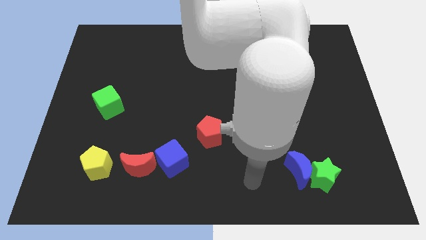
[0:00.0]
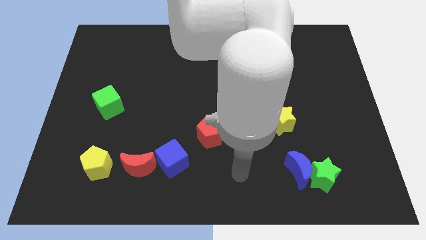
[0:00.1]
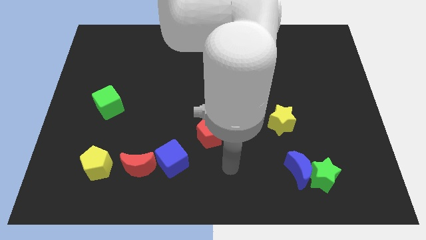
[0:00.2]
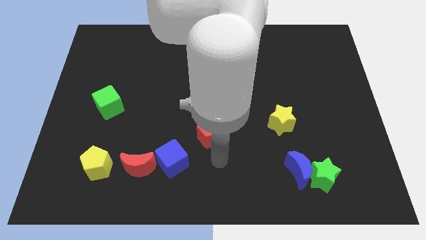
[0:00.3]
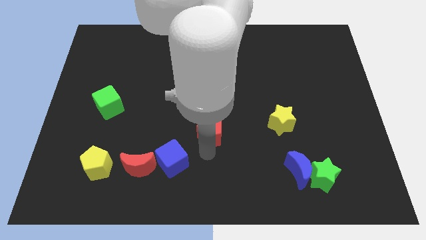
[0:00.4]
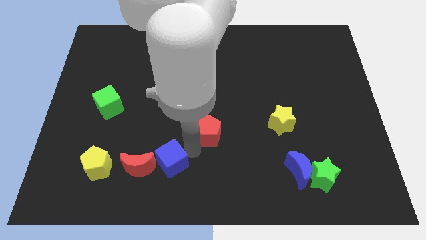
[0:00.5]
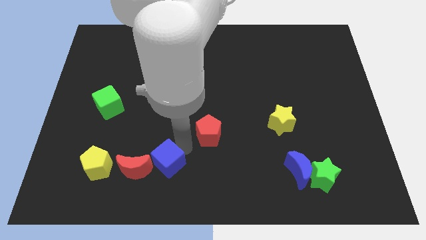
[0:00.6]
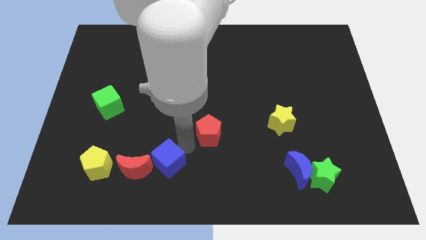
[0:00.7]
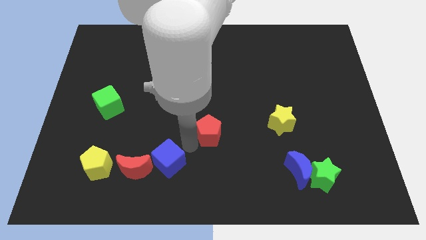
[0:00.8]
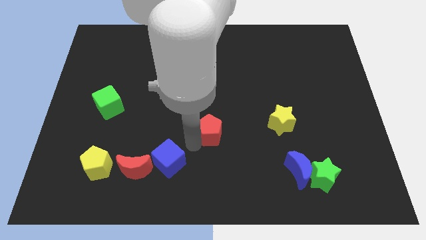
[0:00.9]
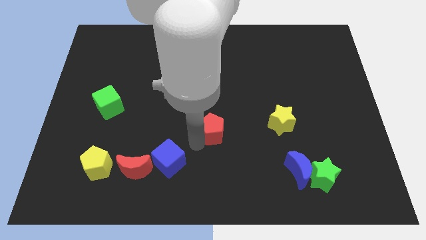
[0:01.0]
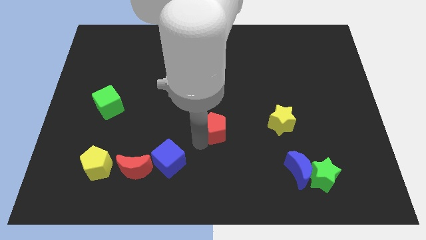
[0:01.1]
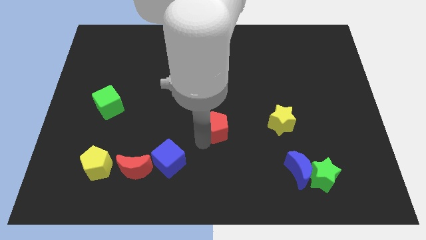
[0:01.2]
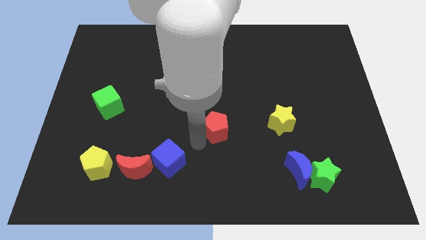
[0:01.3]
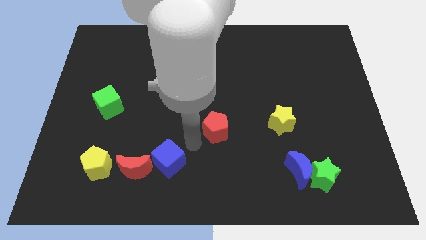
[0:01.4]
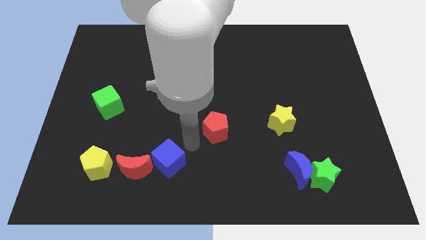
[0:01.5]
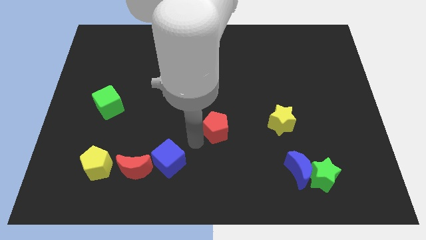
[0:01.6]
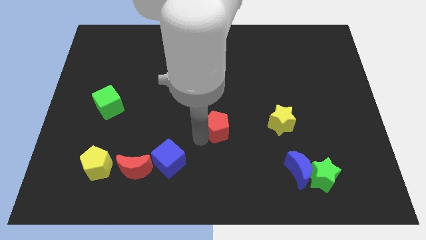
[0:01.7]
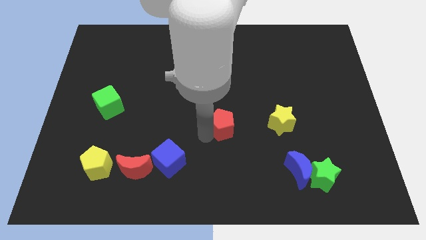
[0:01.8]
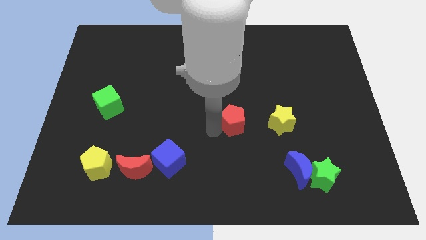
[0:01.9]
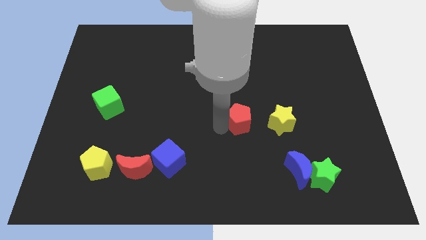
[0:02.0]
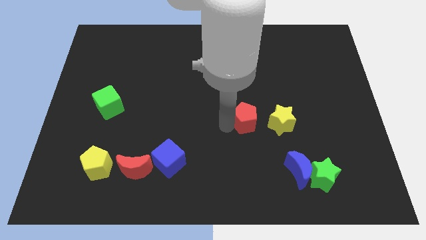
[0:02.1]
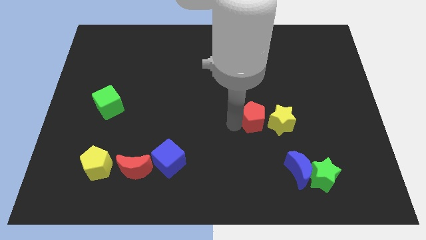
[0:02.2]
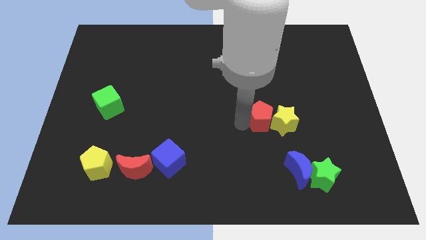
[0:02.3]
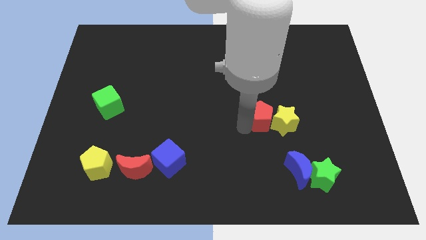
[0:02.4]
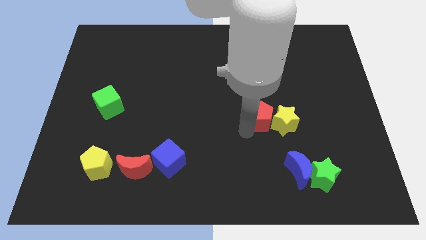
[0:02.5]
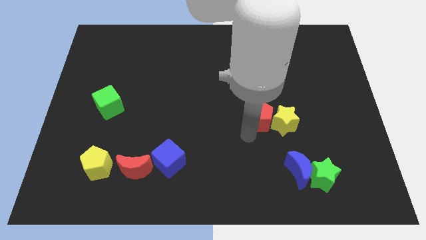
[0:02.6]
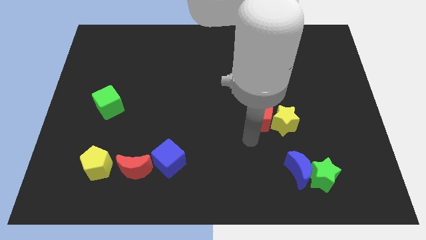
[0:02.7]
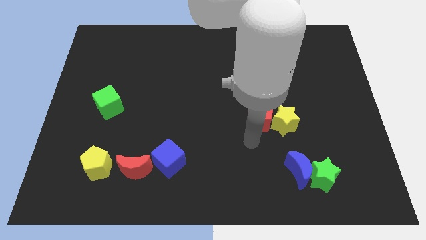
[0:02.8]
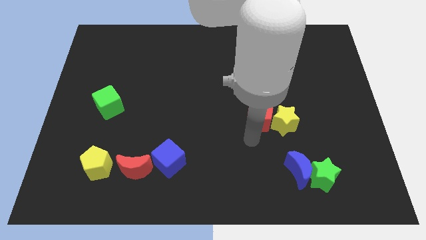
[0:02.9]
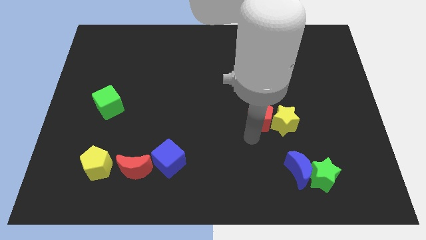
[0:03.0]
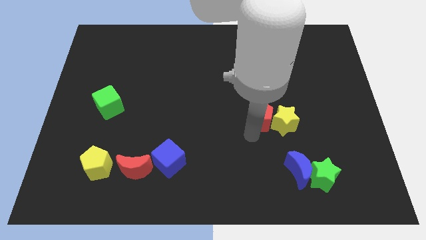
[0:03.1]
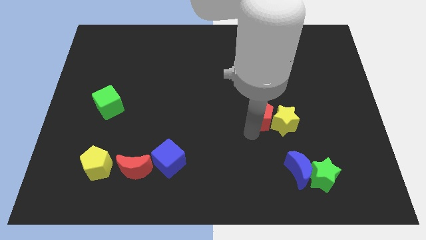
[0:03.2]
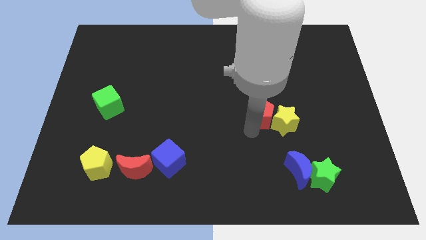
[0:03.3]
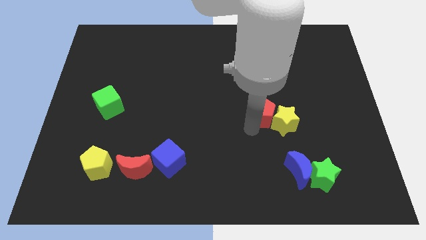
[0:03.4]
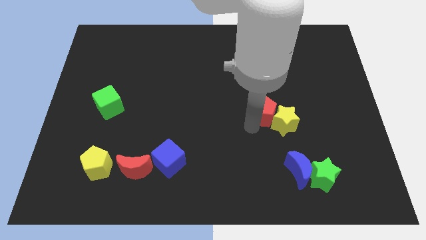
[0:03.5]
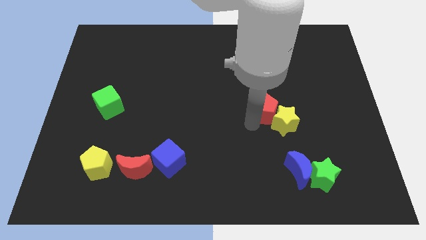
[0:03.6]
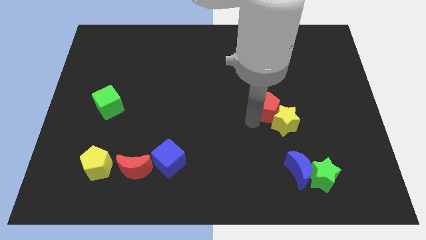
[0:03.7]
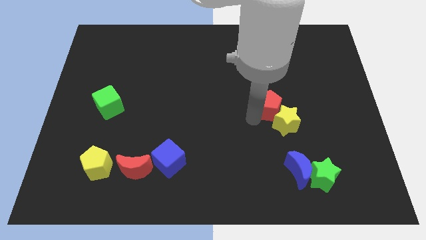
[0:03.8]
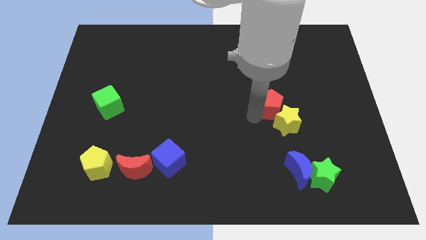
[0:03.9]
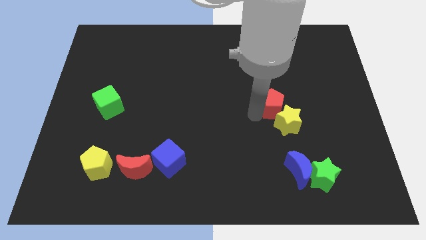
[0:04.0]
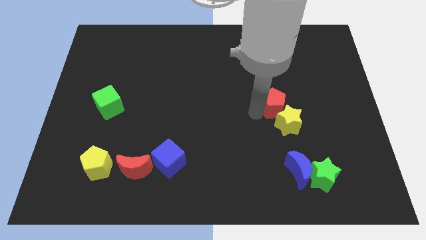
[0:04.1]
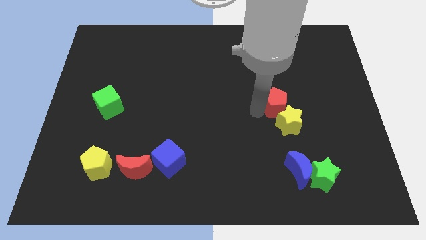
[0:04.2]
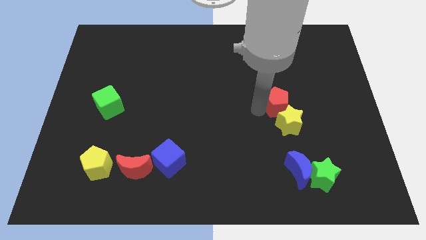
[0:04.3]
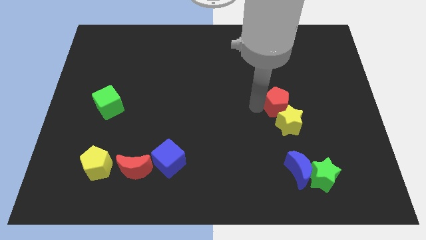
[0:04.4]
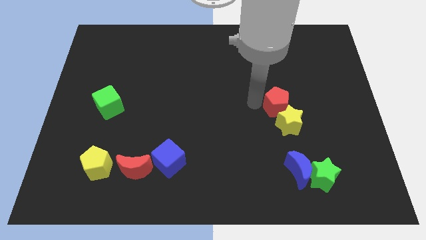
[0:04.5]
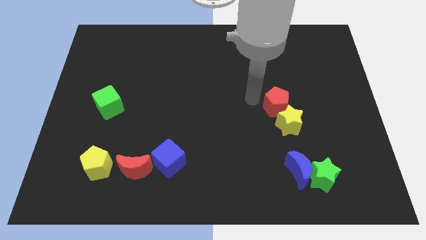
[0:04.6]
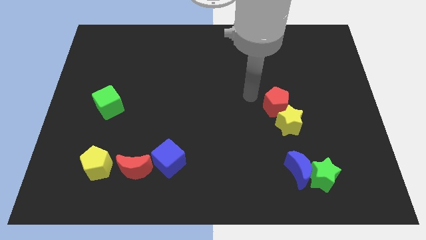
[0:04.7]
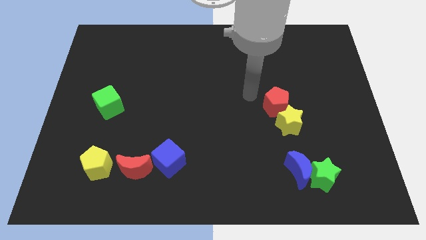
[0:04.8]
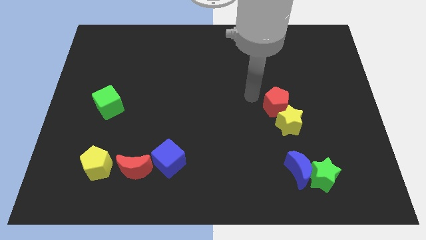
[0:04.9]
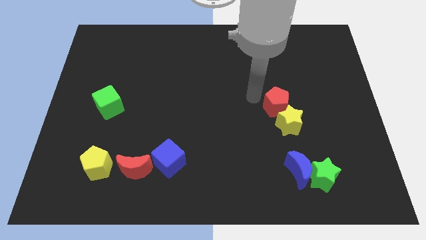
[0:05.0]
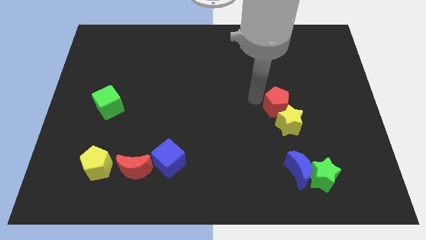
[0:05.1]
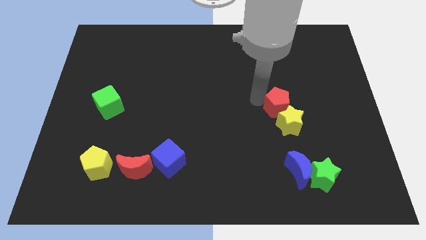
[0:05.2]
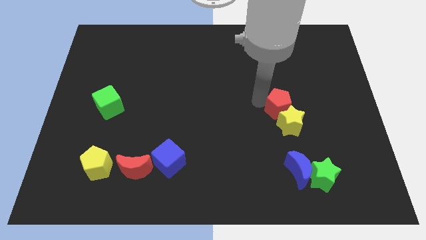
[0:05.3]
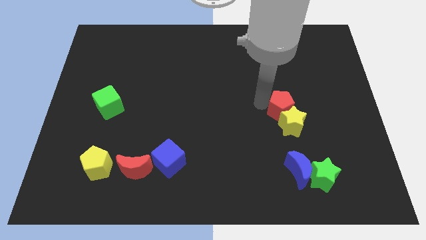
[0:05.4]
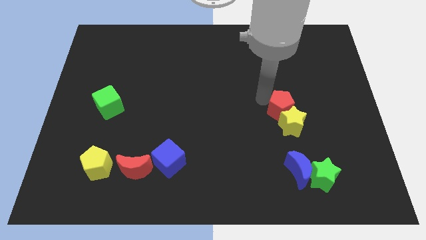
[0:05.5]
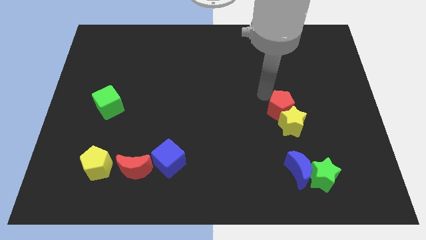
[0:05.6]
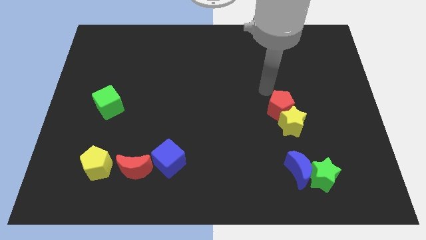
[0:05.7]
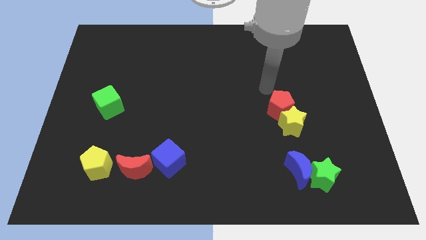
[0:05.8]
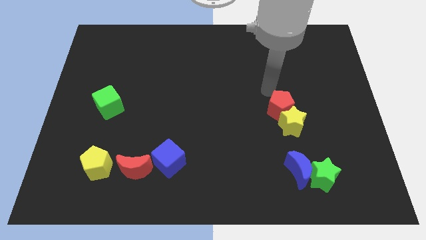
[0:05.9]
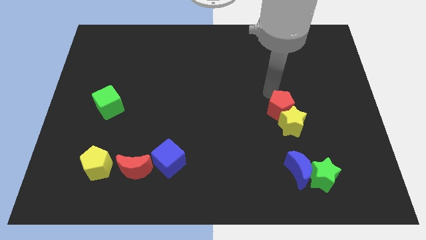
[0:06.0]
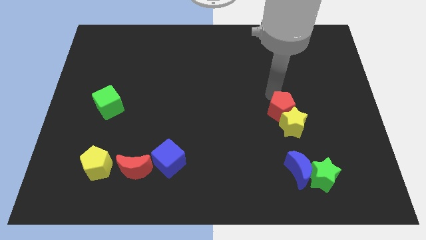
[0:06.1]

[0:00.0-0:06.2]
slide the red pentagon to the top side of the blue moon
